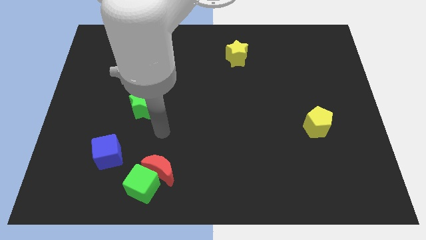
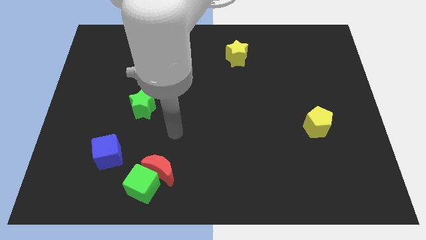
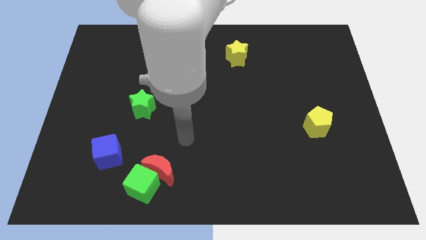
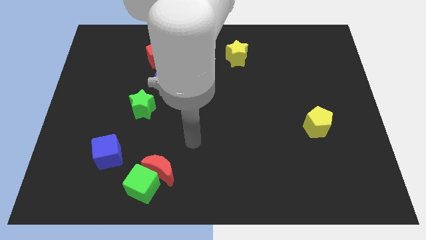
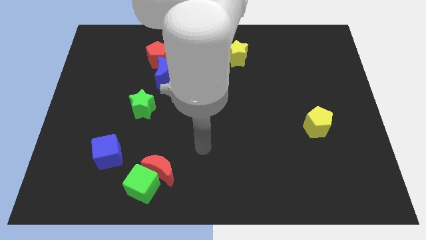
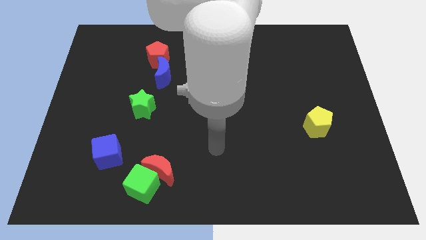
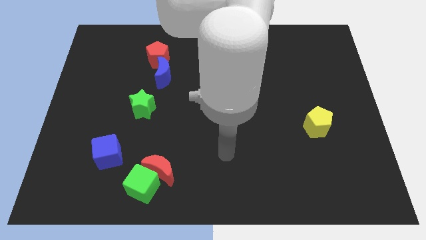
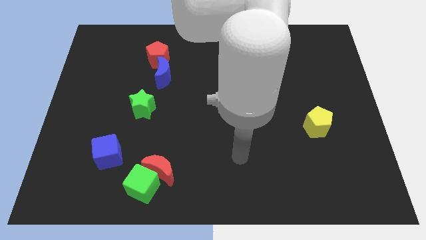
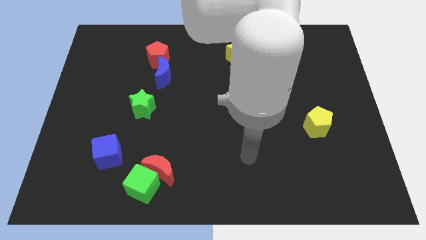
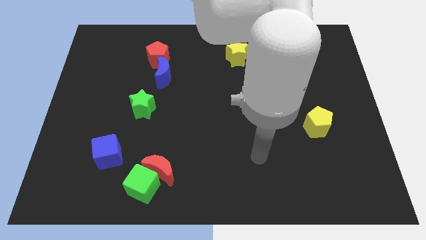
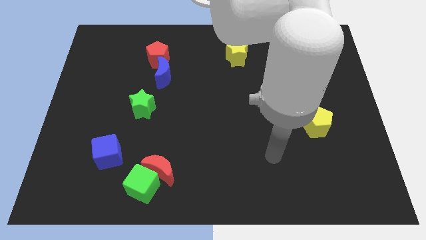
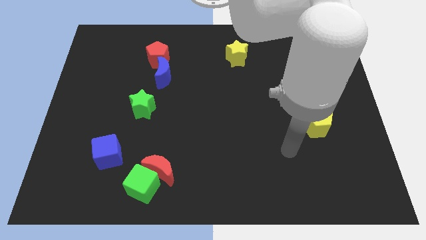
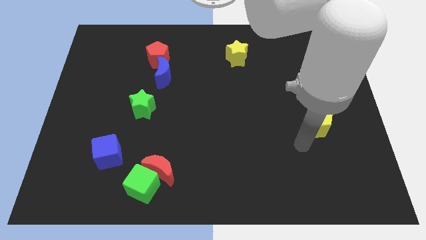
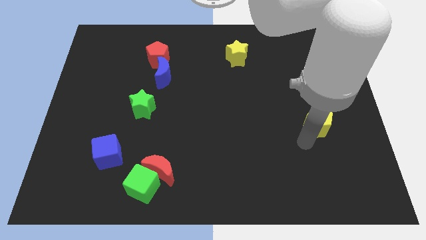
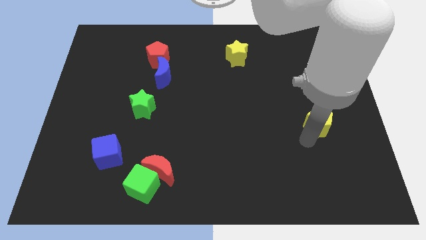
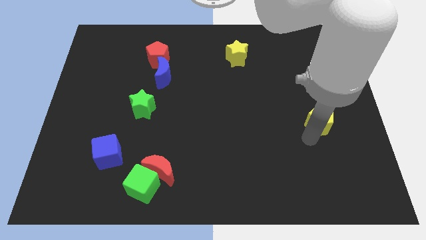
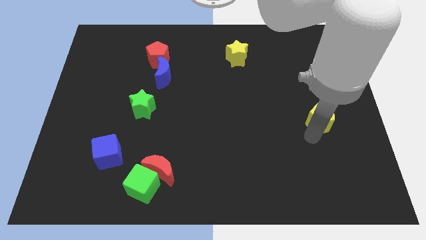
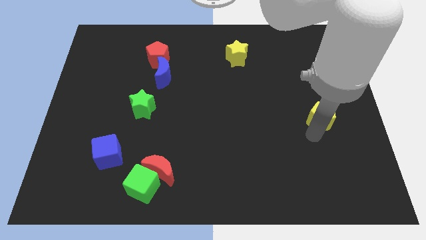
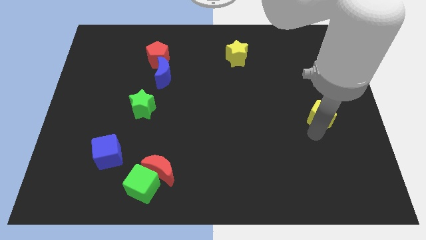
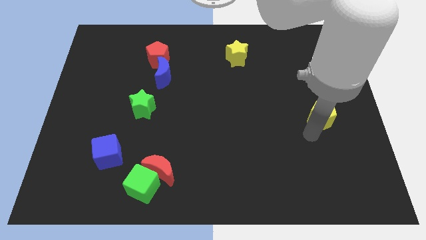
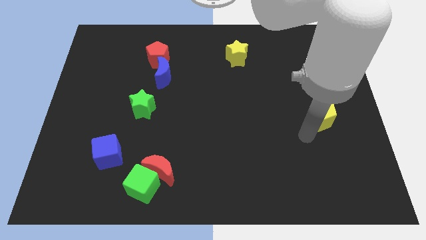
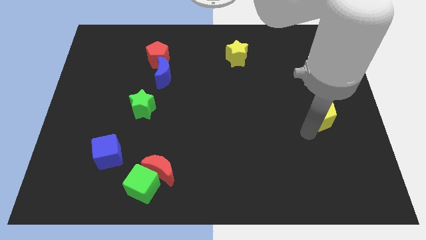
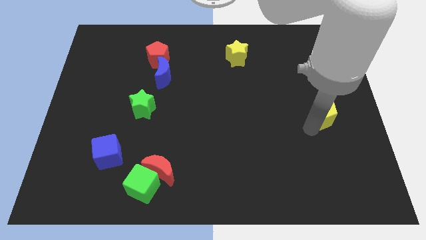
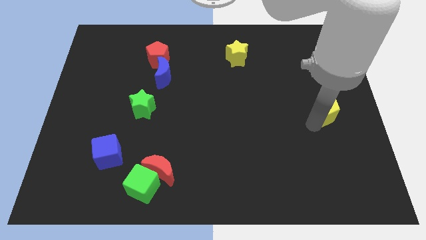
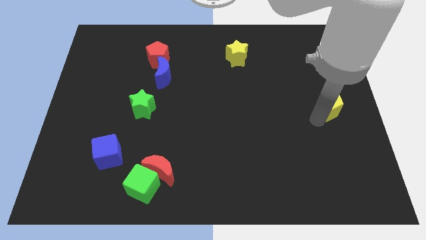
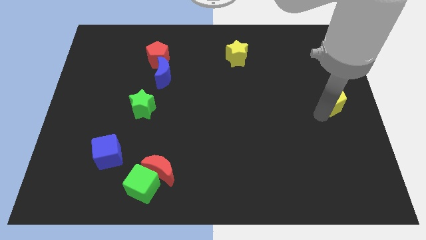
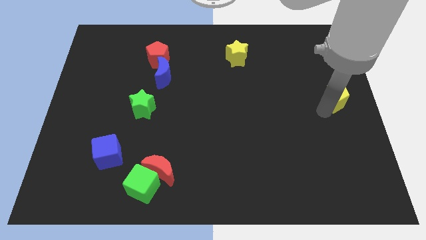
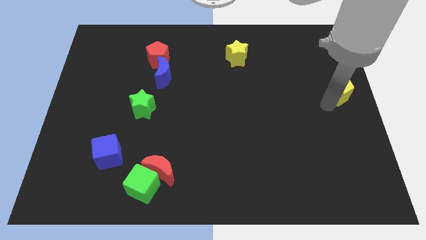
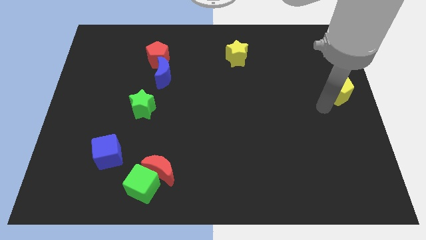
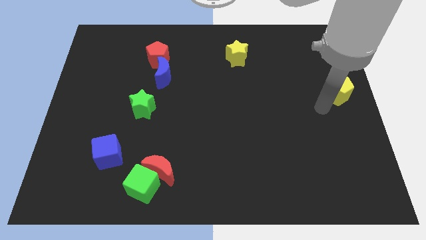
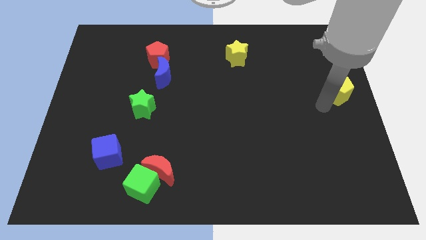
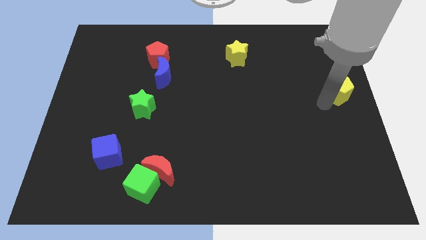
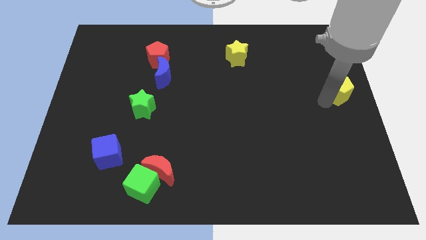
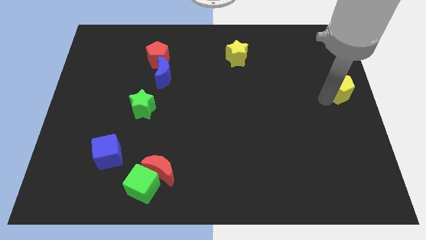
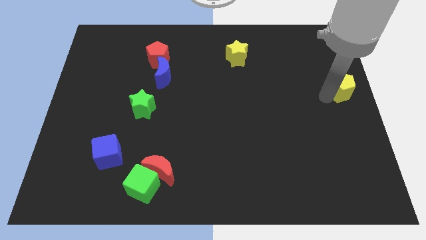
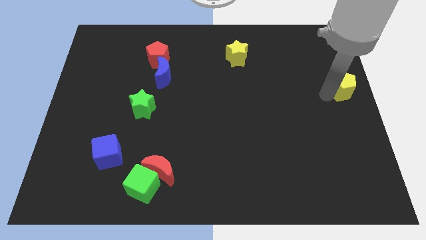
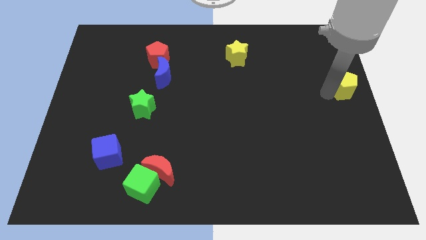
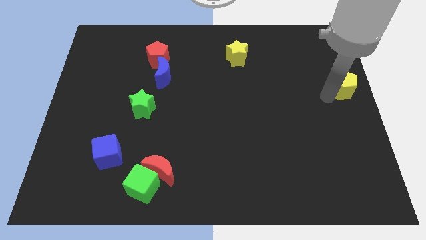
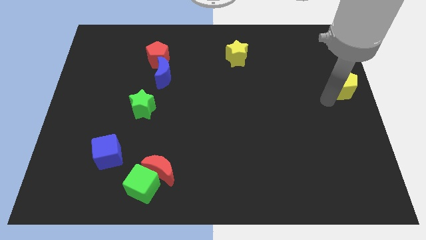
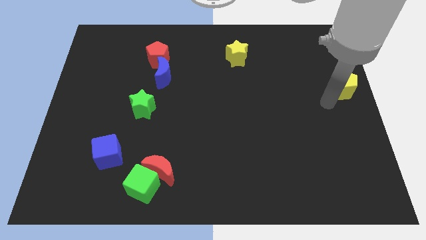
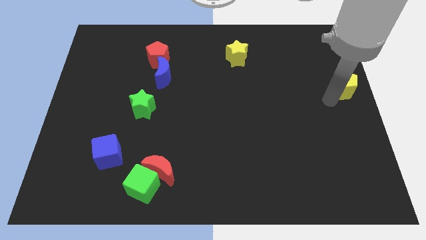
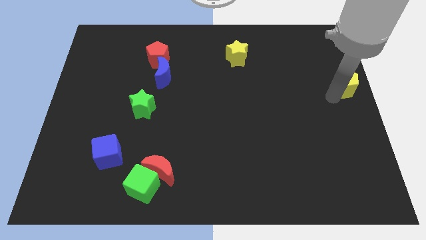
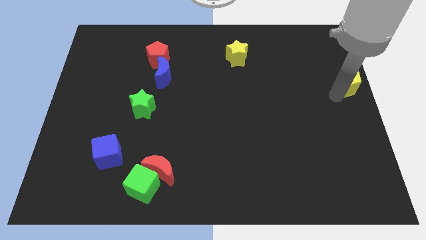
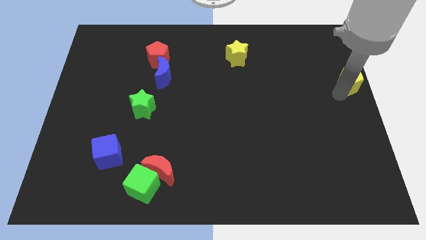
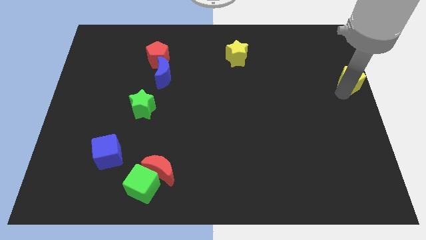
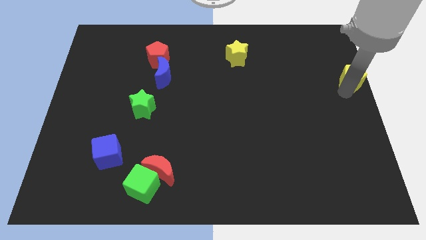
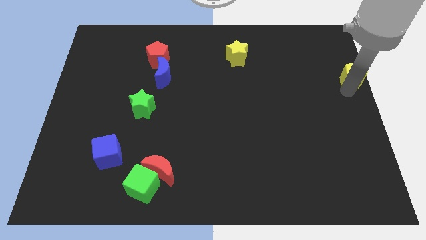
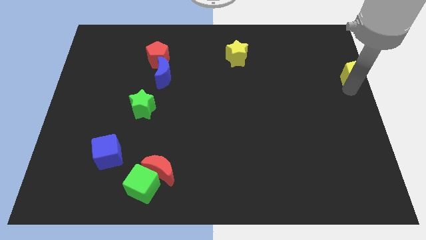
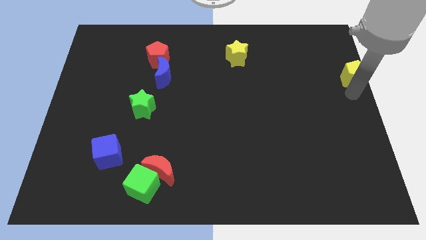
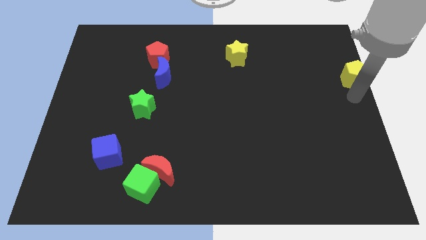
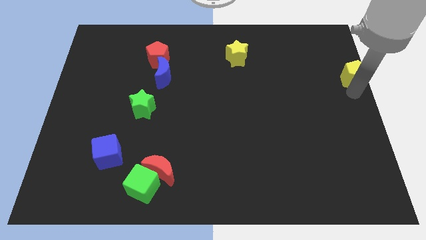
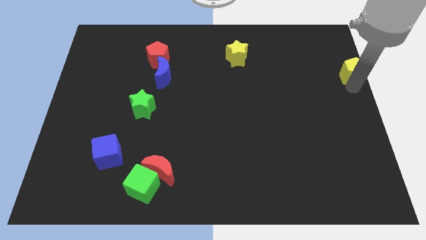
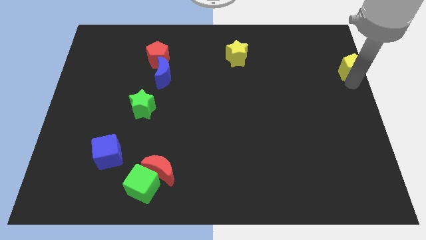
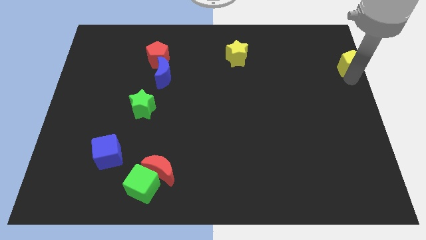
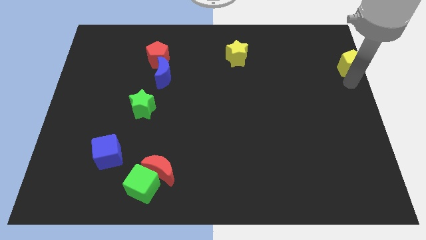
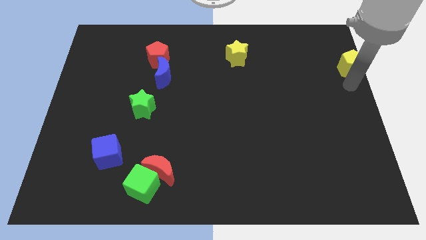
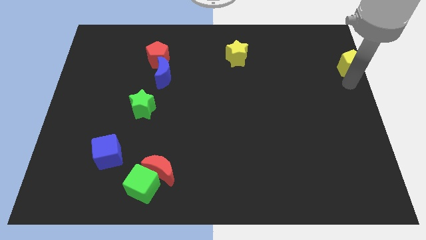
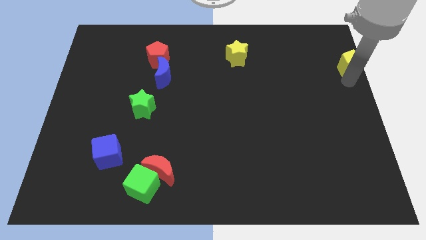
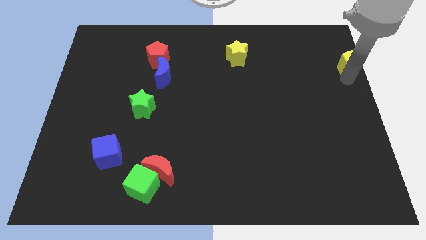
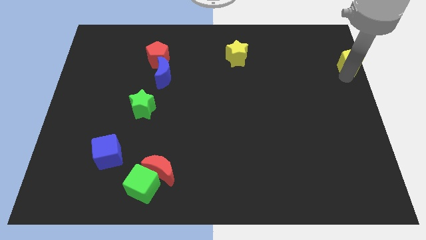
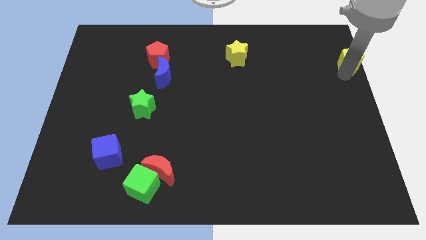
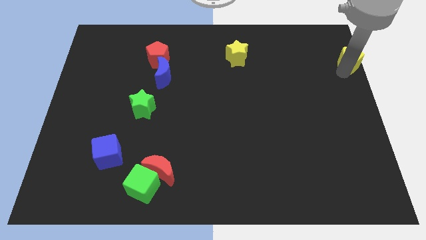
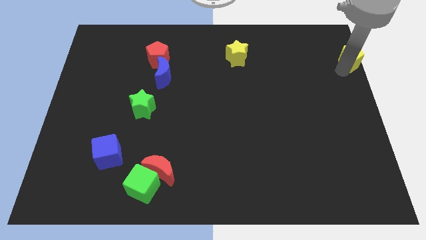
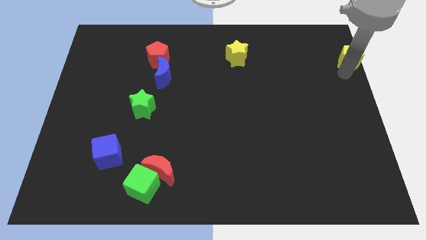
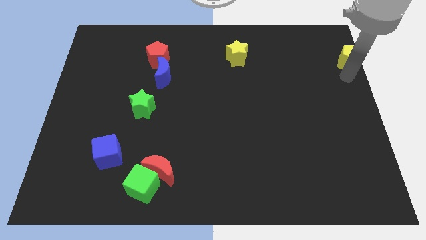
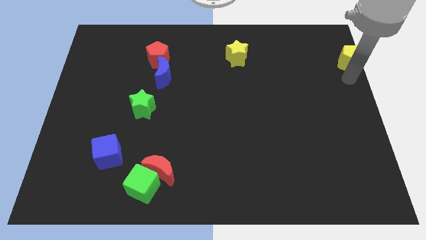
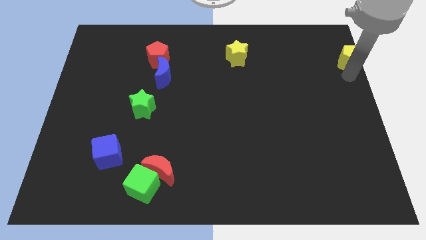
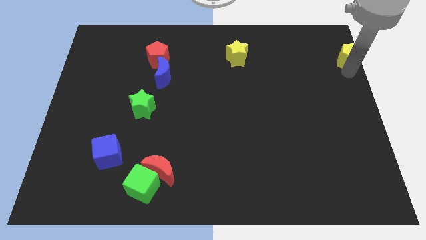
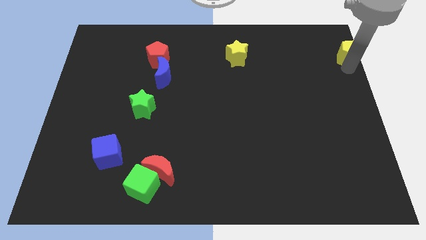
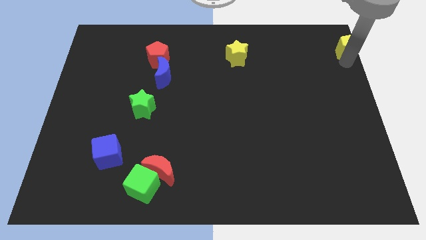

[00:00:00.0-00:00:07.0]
push the yellow pentagon to the top right corner

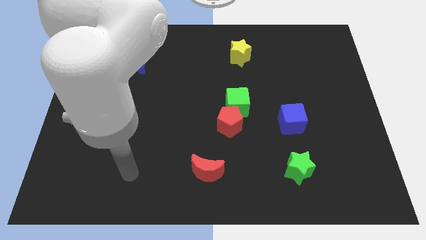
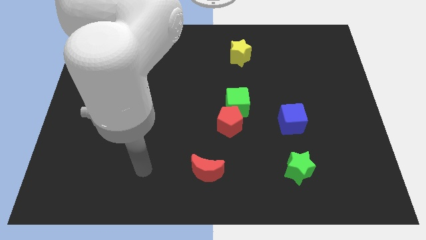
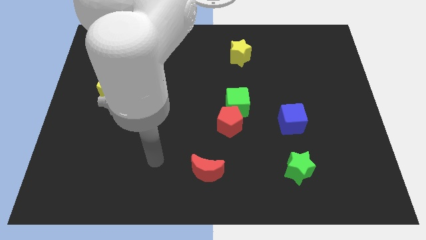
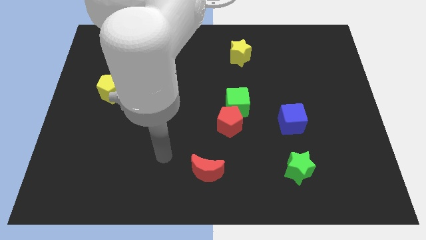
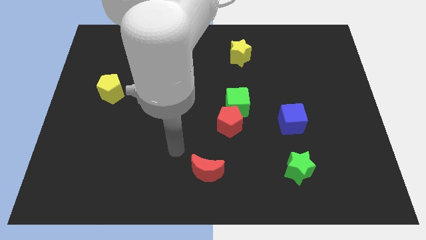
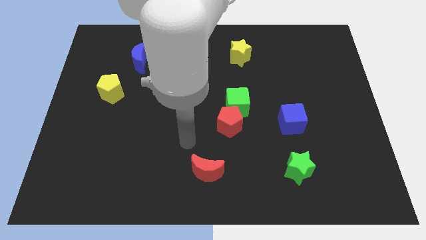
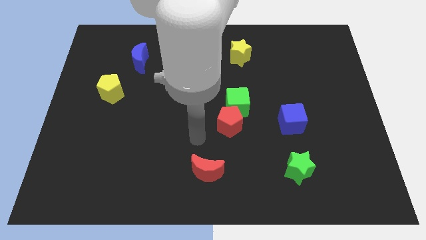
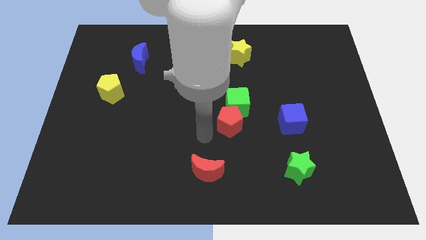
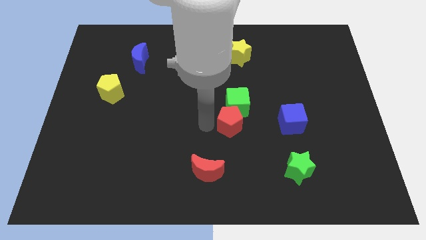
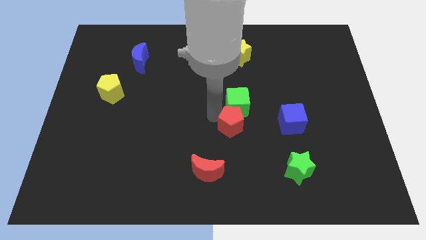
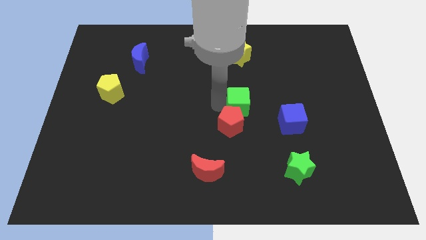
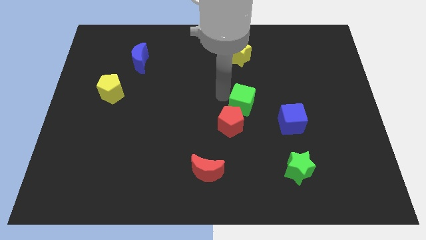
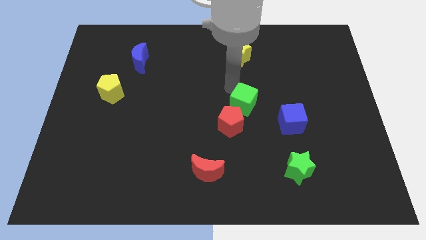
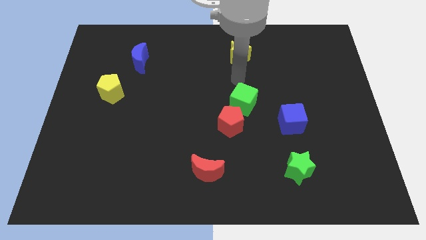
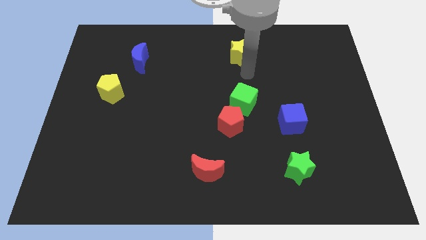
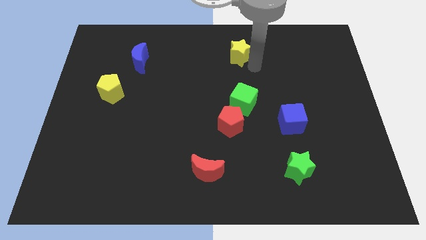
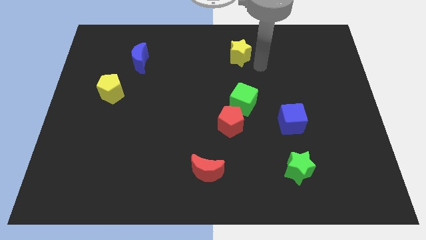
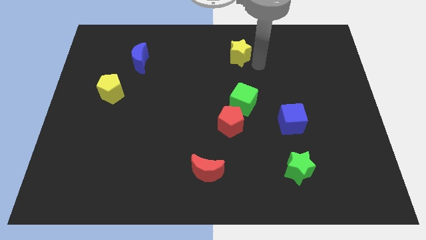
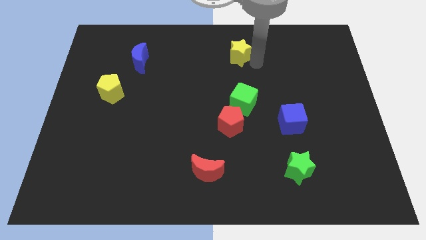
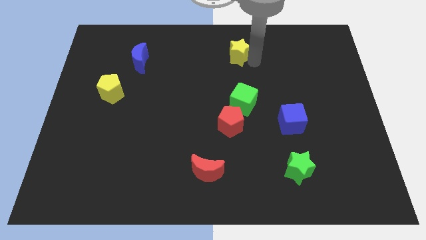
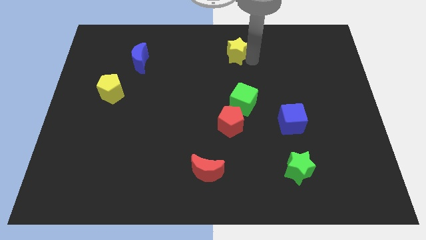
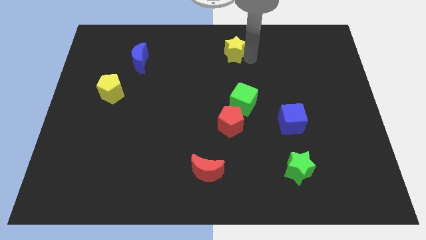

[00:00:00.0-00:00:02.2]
slide the yellow star to the towards your base
